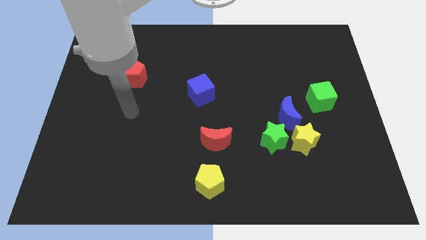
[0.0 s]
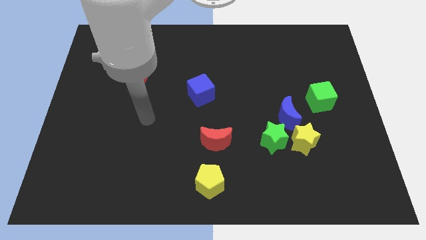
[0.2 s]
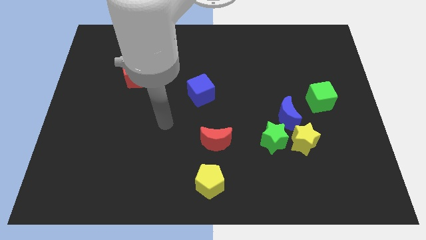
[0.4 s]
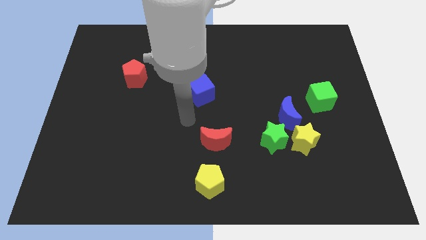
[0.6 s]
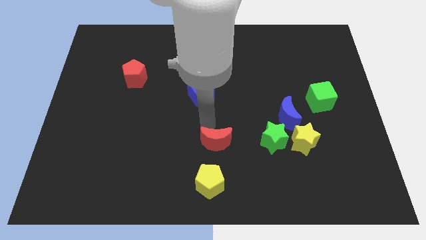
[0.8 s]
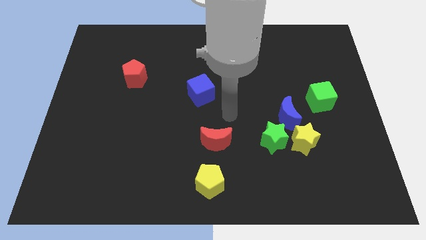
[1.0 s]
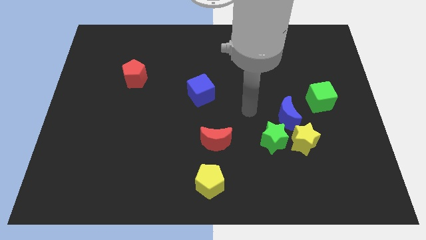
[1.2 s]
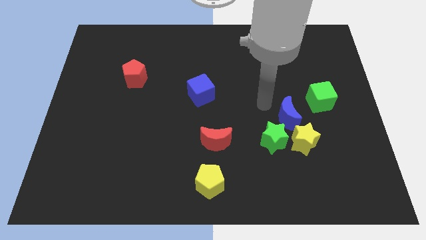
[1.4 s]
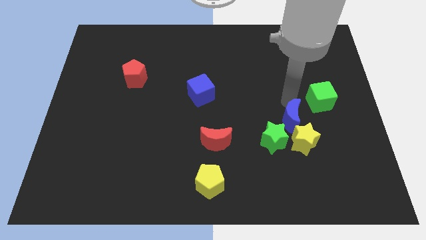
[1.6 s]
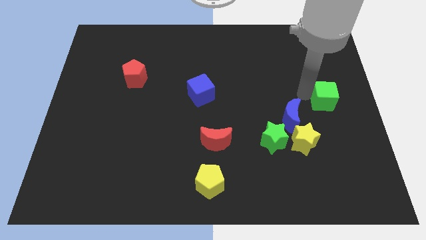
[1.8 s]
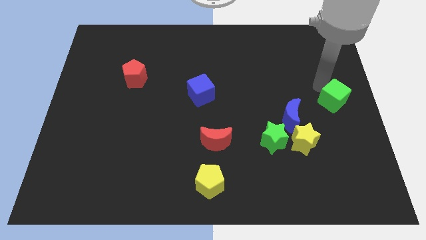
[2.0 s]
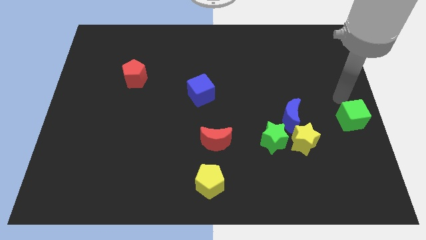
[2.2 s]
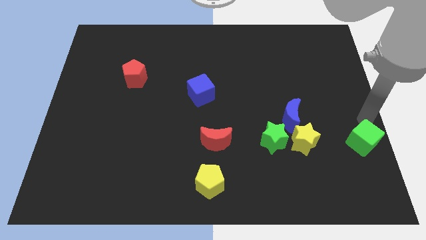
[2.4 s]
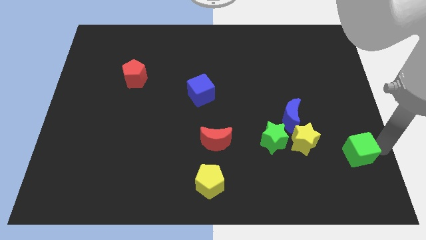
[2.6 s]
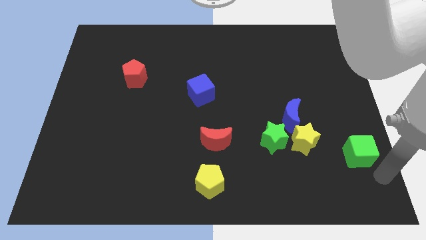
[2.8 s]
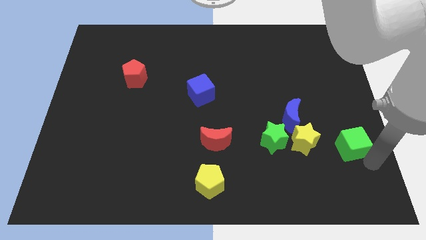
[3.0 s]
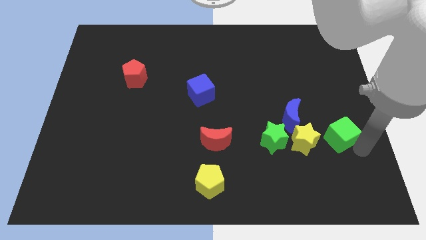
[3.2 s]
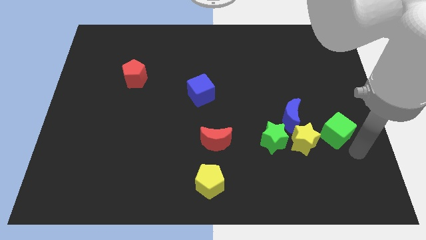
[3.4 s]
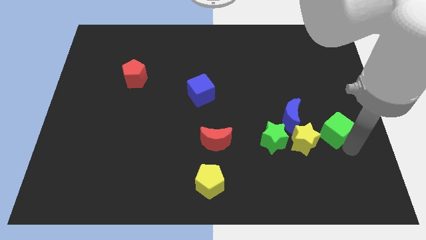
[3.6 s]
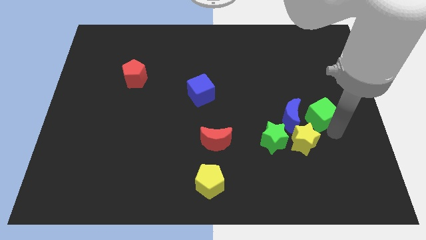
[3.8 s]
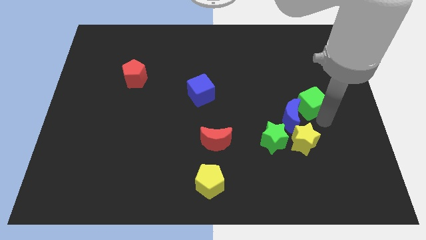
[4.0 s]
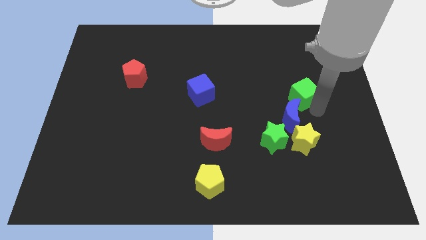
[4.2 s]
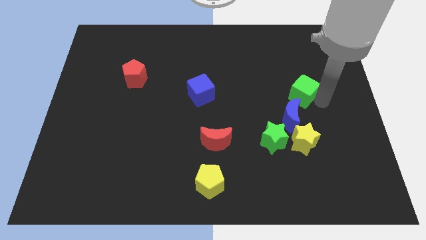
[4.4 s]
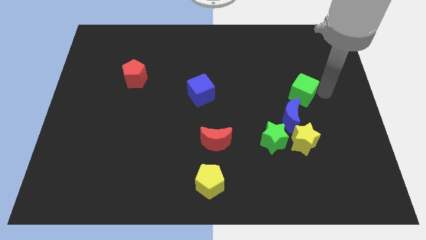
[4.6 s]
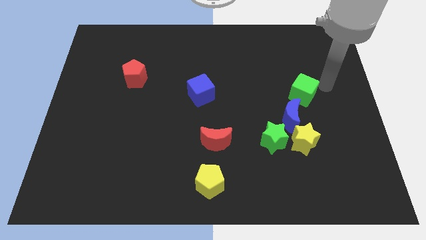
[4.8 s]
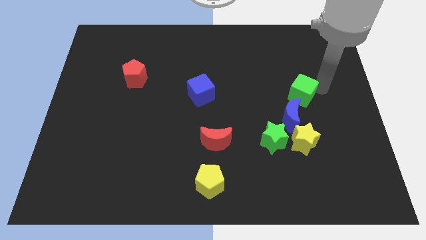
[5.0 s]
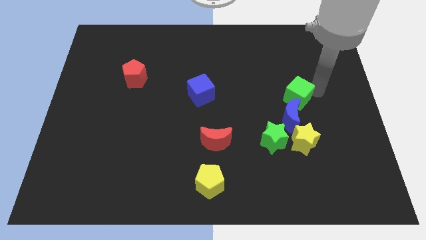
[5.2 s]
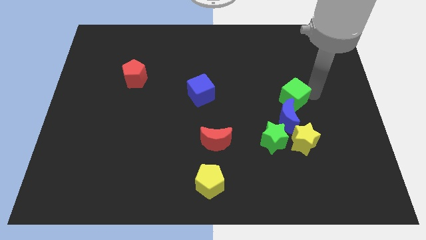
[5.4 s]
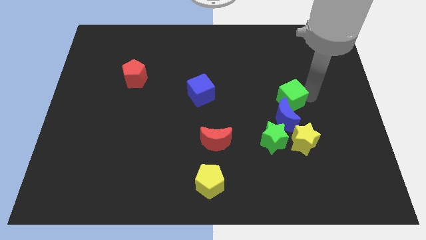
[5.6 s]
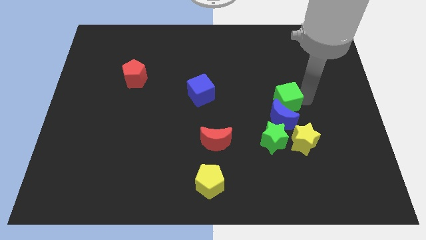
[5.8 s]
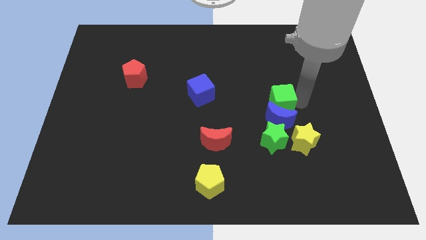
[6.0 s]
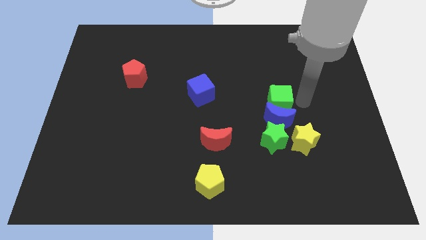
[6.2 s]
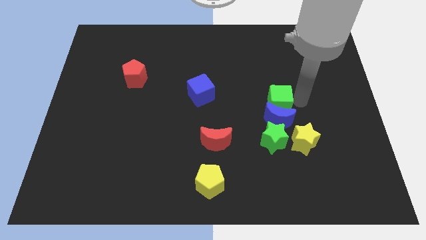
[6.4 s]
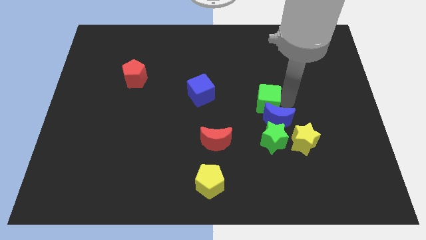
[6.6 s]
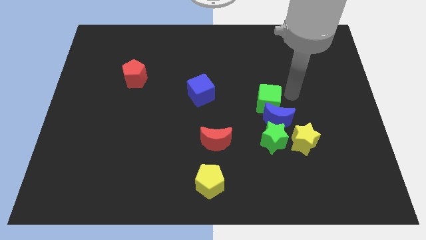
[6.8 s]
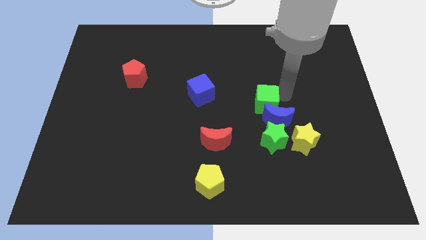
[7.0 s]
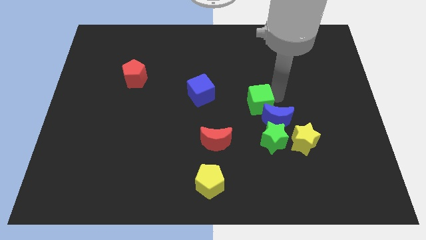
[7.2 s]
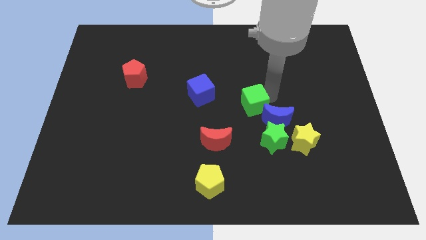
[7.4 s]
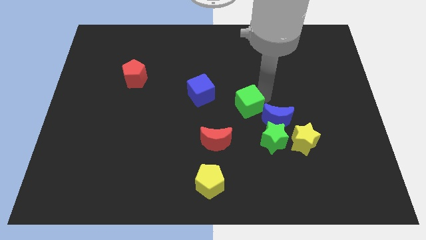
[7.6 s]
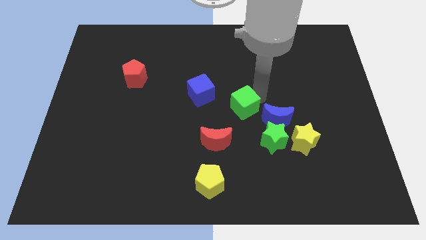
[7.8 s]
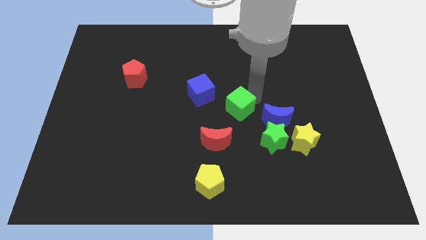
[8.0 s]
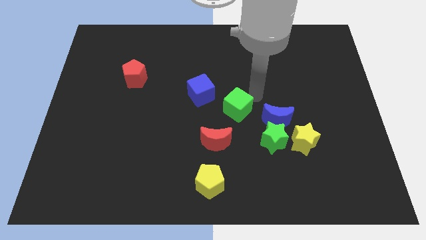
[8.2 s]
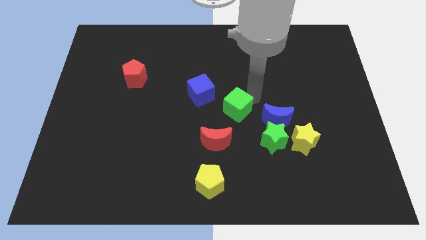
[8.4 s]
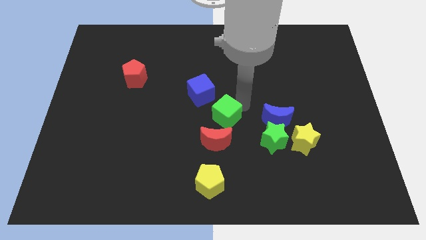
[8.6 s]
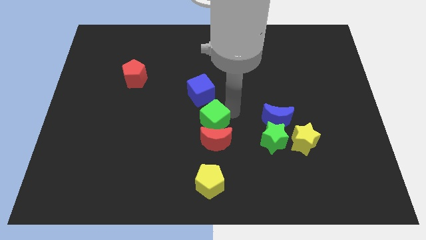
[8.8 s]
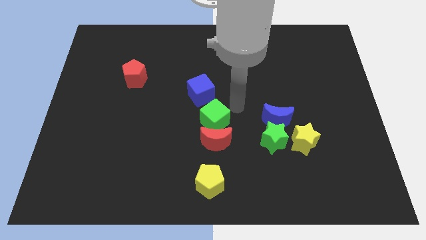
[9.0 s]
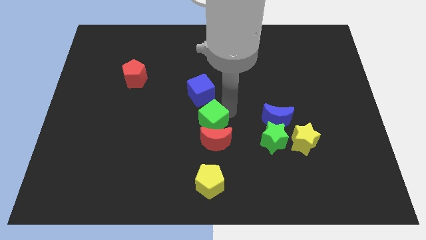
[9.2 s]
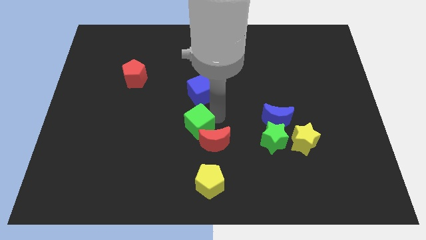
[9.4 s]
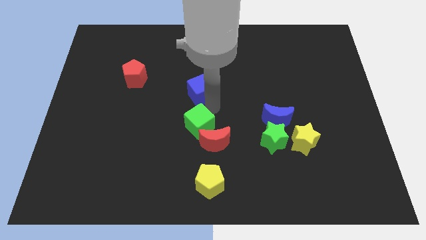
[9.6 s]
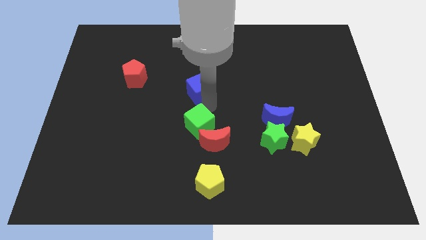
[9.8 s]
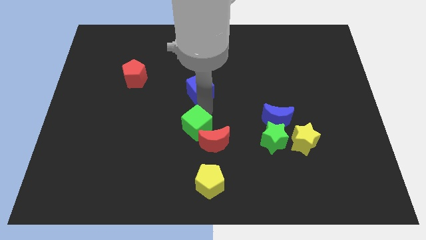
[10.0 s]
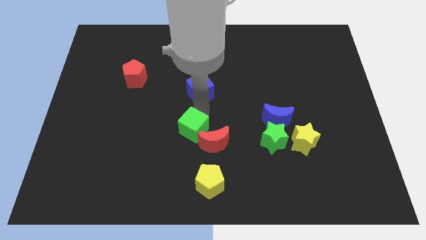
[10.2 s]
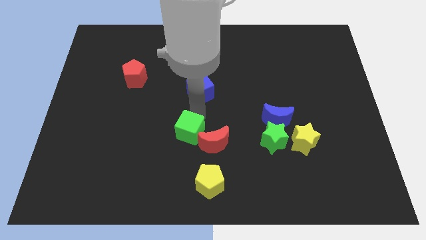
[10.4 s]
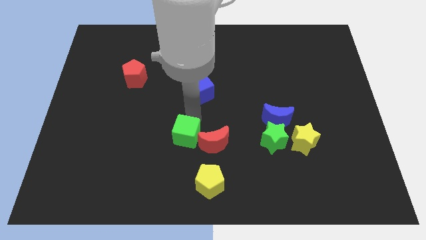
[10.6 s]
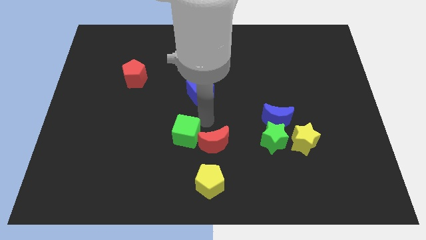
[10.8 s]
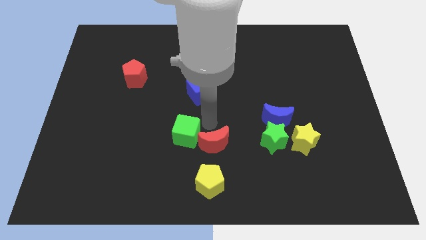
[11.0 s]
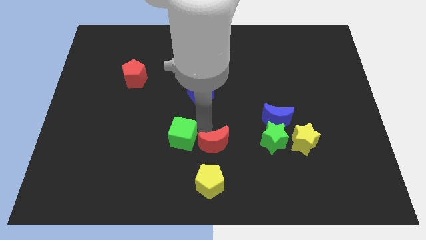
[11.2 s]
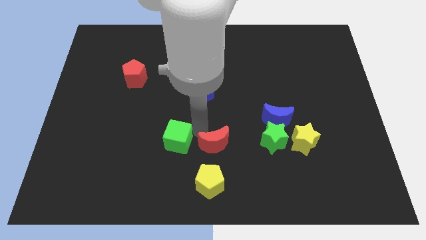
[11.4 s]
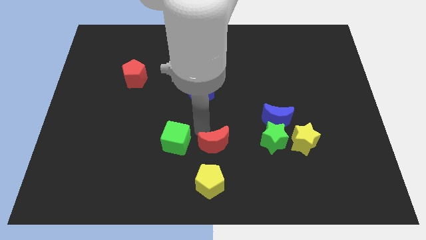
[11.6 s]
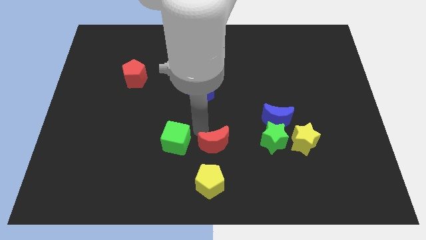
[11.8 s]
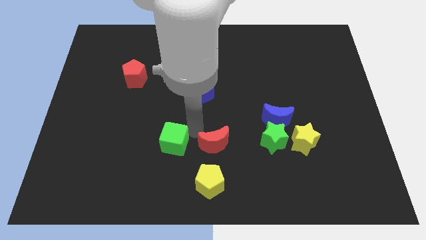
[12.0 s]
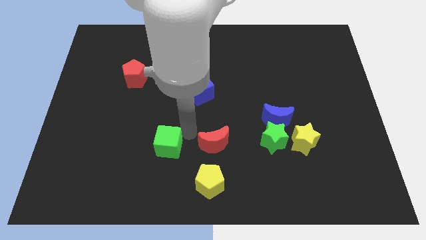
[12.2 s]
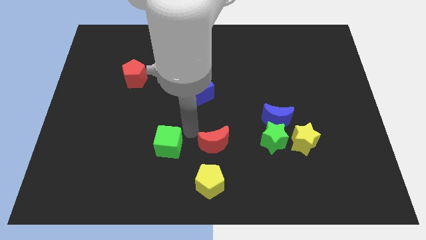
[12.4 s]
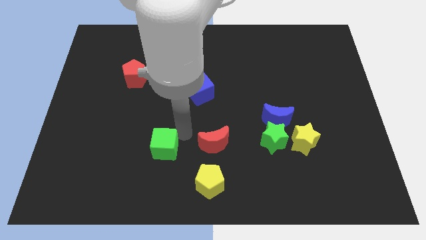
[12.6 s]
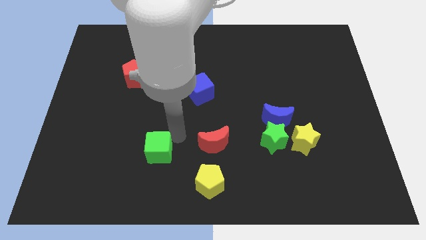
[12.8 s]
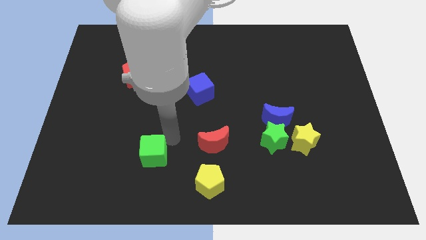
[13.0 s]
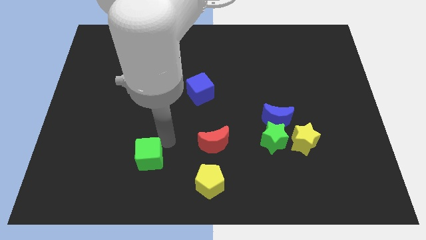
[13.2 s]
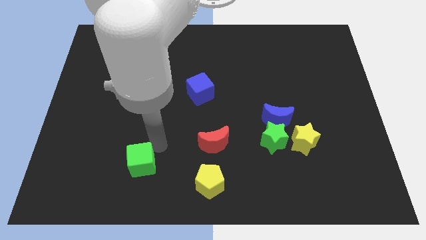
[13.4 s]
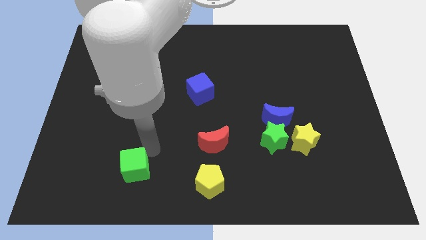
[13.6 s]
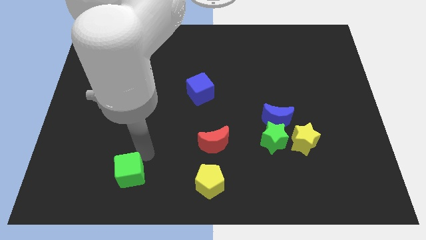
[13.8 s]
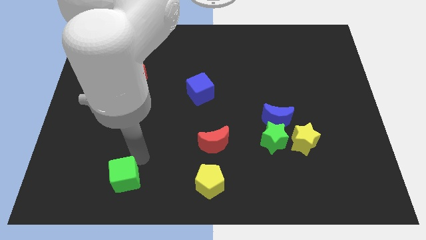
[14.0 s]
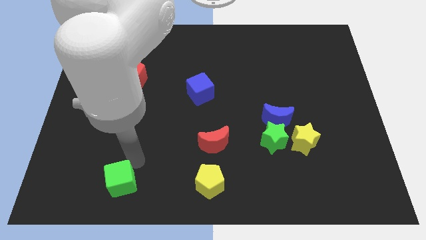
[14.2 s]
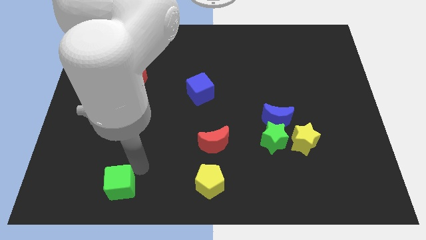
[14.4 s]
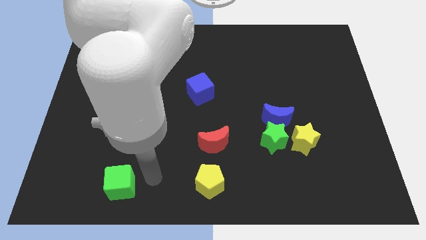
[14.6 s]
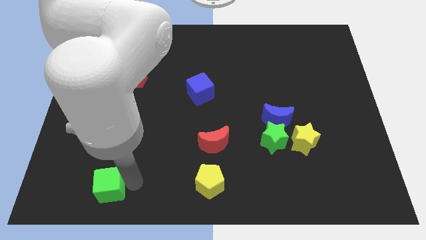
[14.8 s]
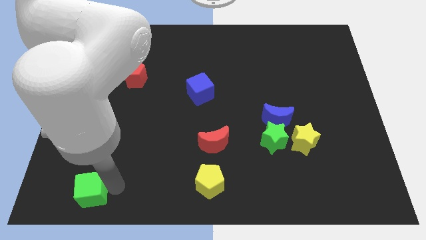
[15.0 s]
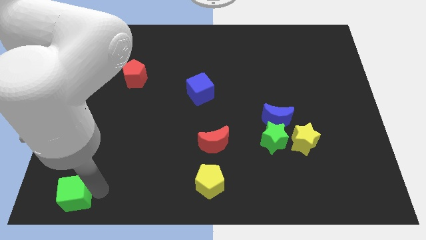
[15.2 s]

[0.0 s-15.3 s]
put the green cube to the bottom left
